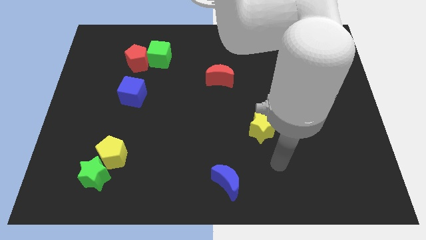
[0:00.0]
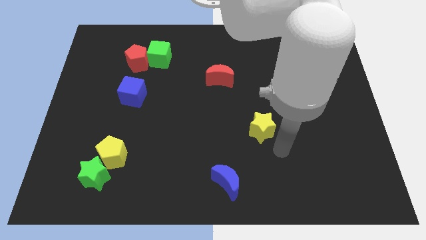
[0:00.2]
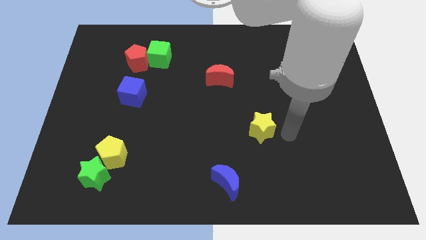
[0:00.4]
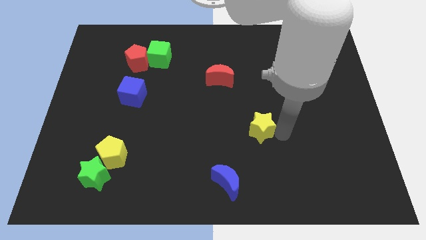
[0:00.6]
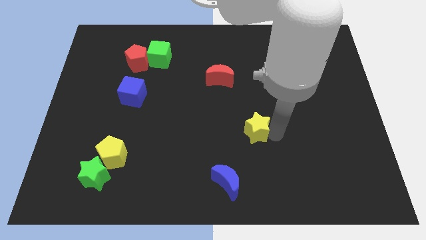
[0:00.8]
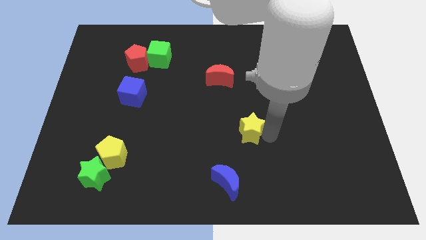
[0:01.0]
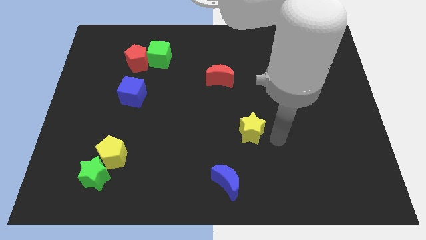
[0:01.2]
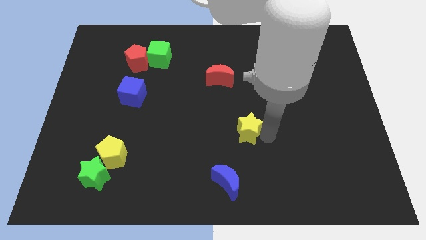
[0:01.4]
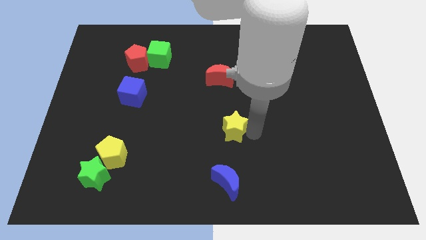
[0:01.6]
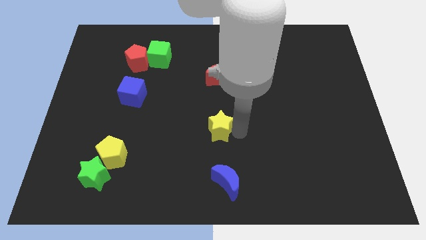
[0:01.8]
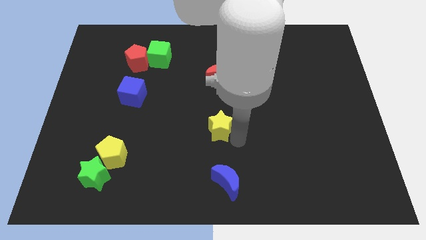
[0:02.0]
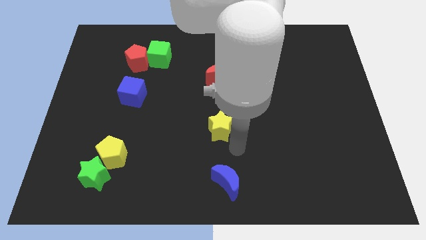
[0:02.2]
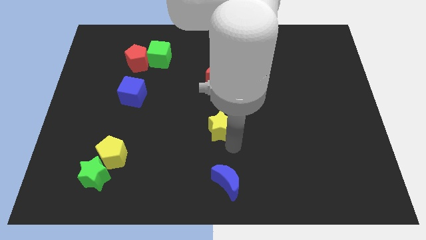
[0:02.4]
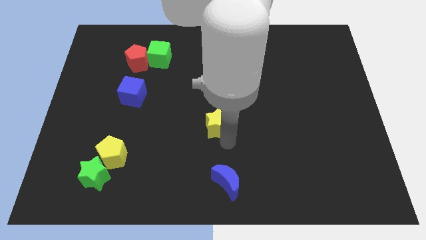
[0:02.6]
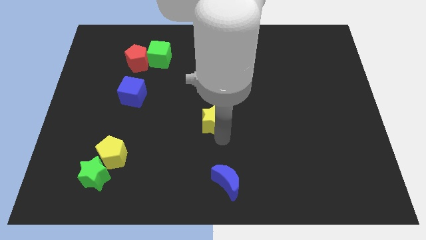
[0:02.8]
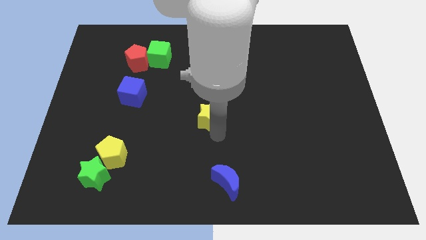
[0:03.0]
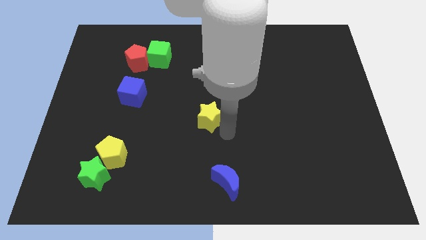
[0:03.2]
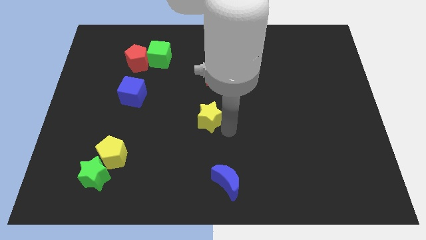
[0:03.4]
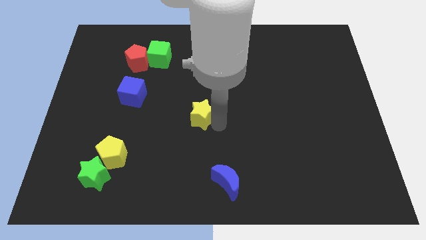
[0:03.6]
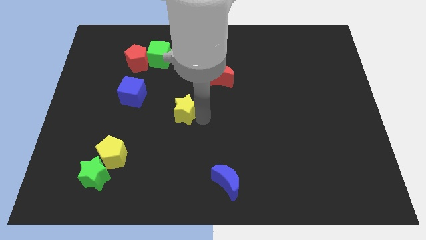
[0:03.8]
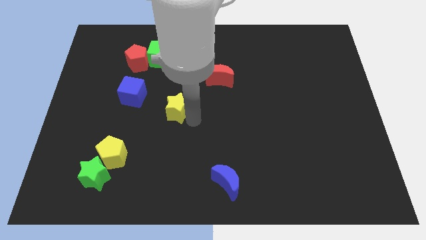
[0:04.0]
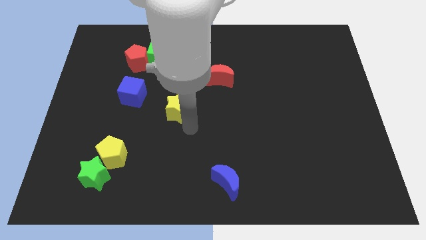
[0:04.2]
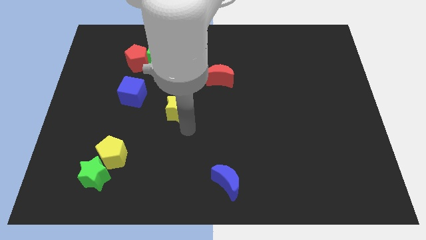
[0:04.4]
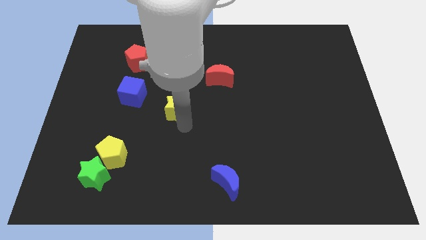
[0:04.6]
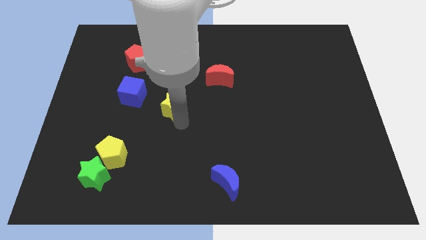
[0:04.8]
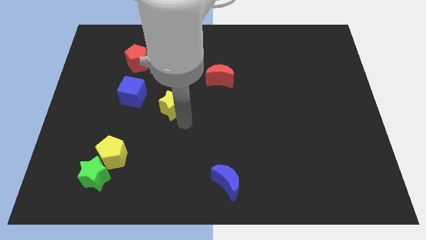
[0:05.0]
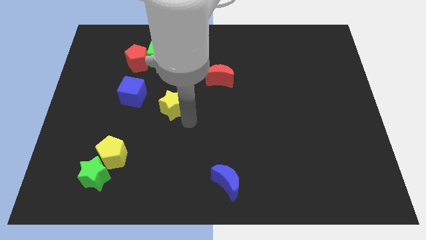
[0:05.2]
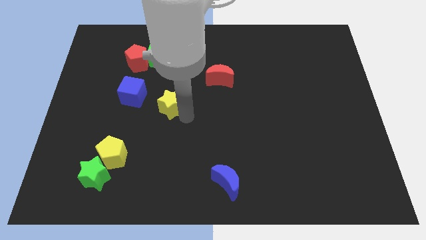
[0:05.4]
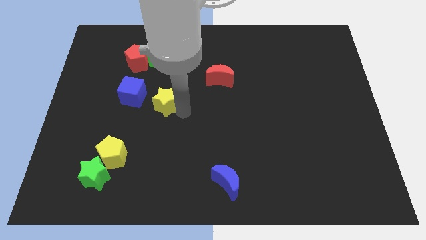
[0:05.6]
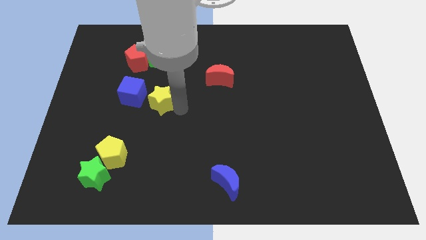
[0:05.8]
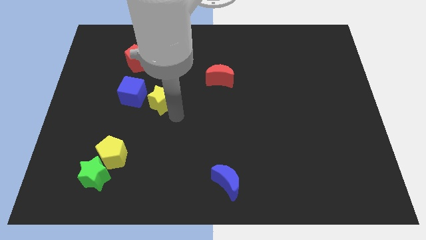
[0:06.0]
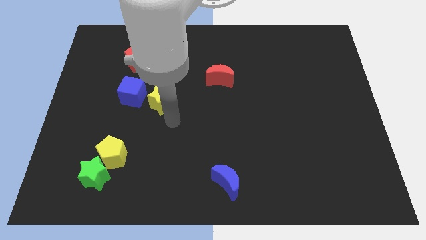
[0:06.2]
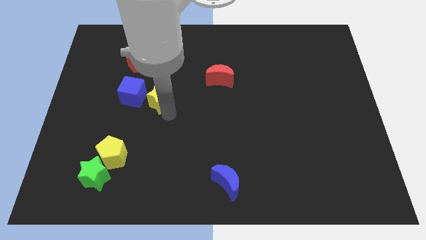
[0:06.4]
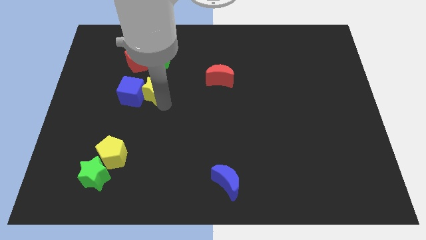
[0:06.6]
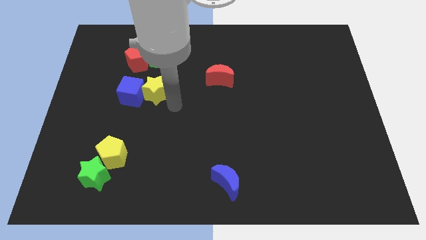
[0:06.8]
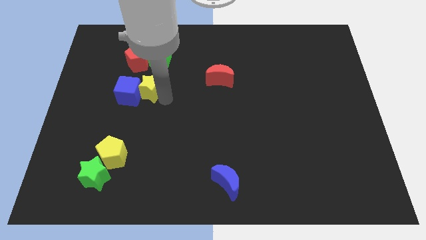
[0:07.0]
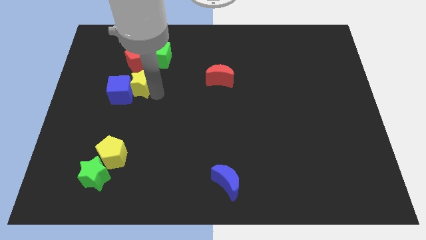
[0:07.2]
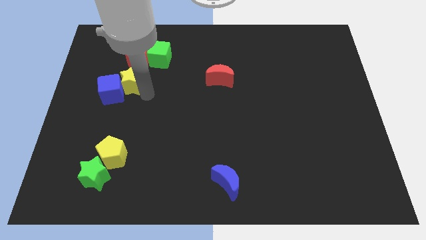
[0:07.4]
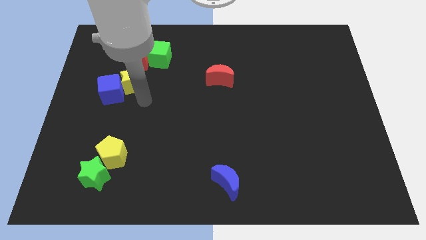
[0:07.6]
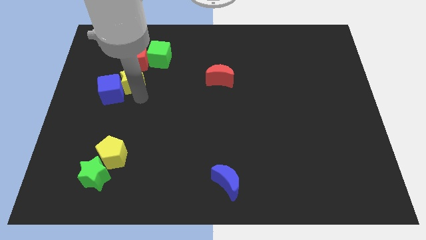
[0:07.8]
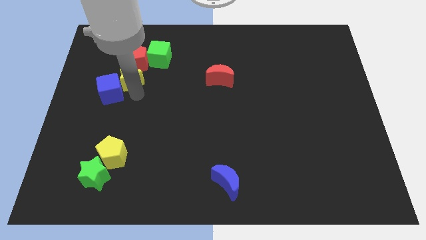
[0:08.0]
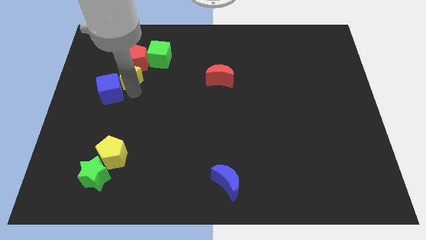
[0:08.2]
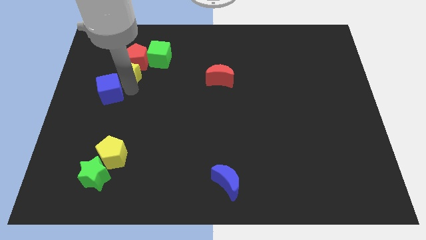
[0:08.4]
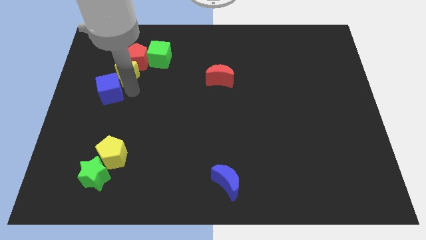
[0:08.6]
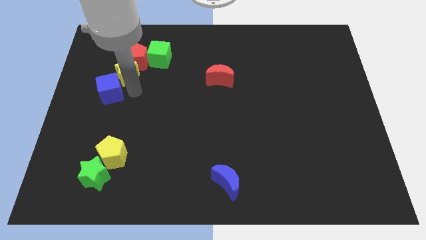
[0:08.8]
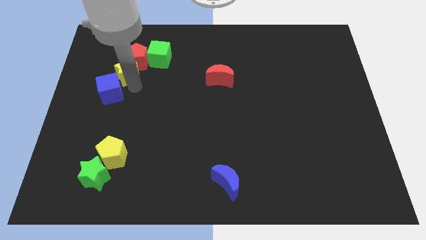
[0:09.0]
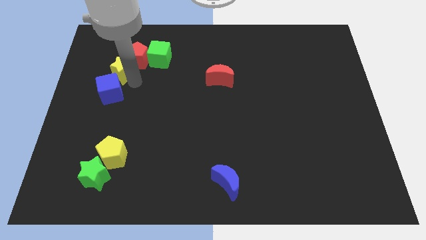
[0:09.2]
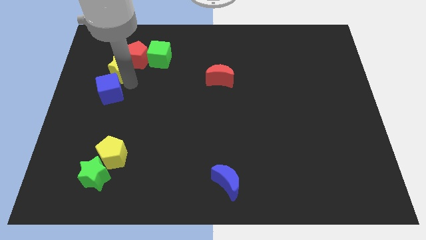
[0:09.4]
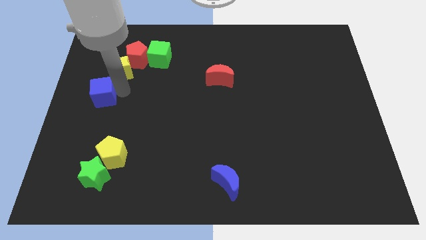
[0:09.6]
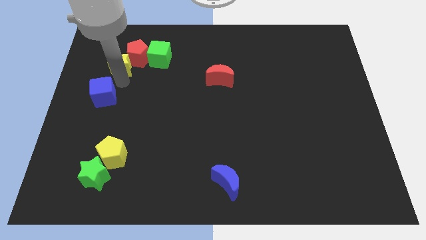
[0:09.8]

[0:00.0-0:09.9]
slide the yellow star left of the green cube

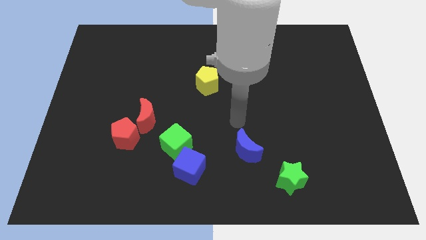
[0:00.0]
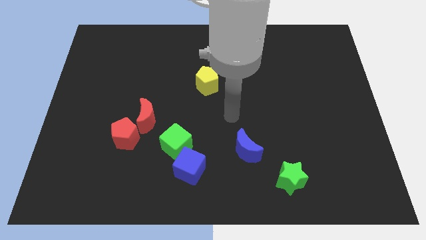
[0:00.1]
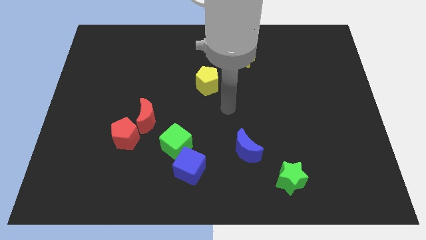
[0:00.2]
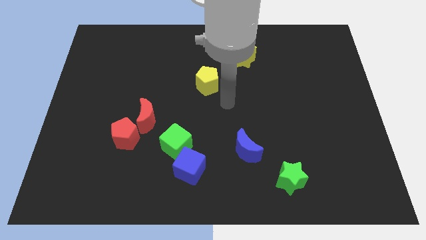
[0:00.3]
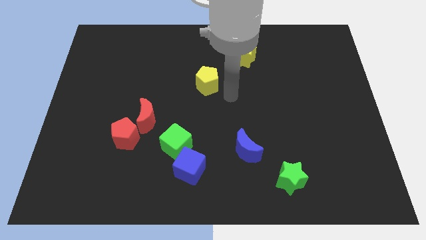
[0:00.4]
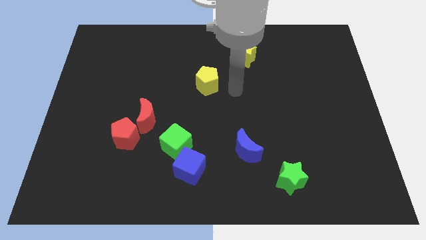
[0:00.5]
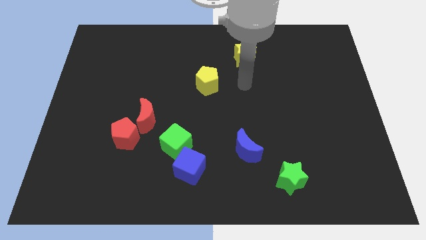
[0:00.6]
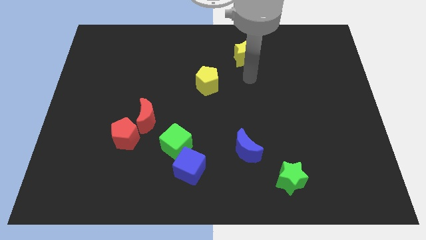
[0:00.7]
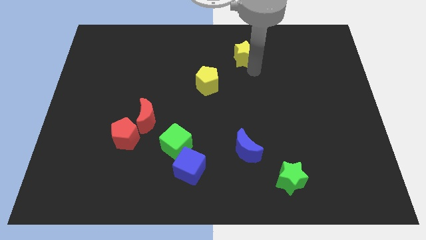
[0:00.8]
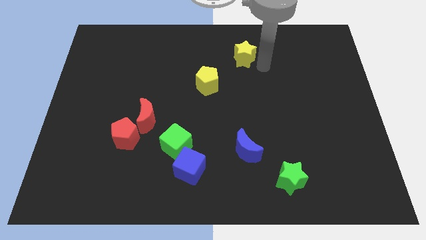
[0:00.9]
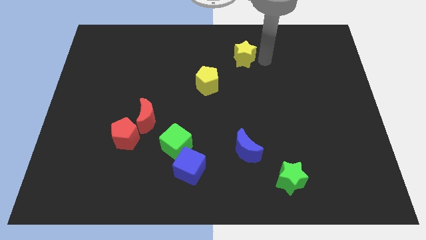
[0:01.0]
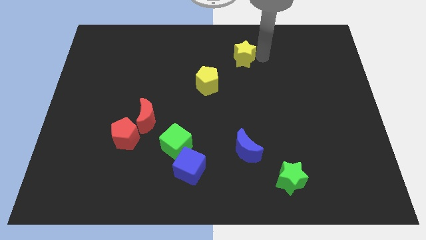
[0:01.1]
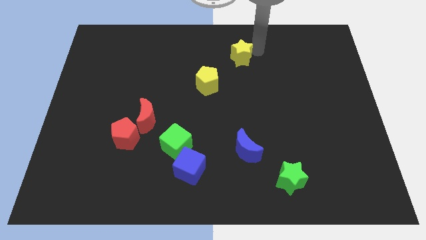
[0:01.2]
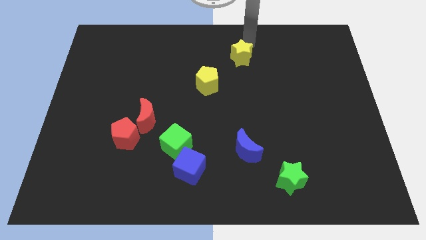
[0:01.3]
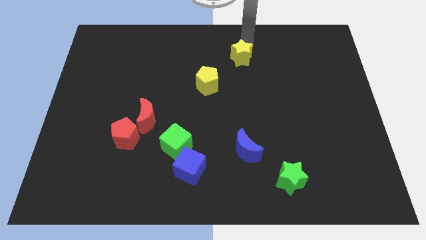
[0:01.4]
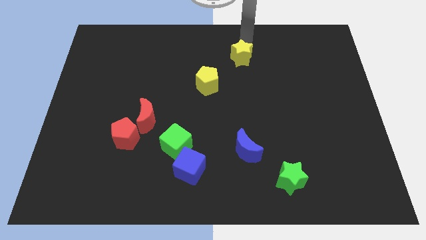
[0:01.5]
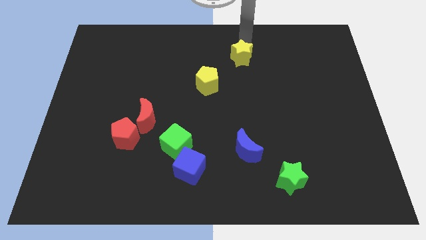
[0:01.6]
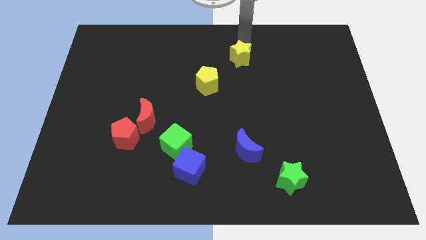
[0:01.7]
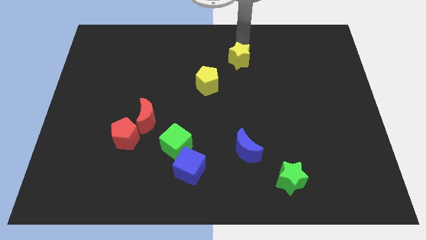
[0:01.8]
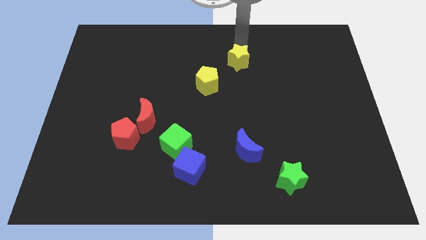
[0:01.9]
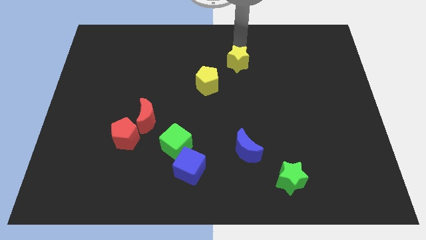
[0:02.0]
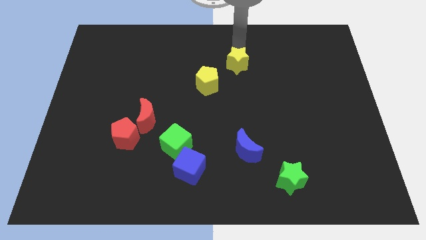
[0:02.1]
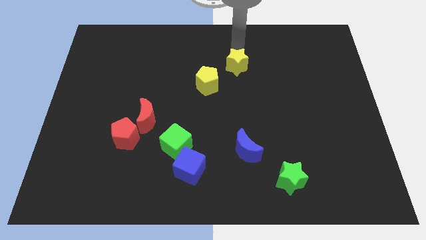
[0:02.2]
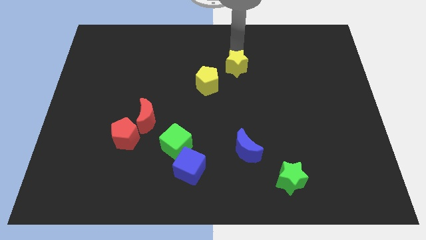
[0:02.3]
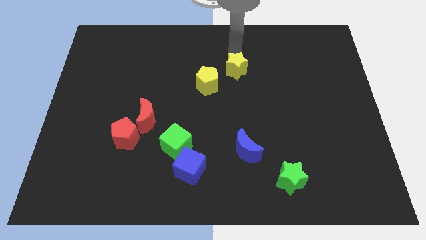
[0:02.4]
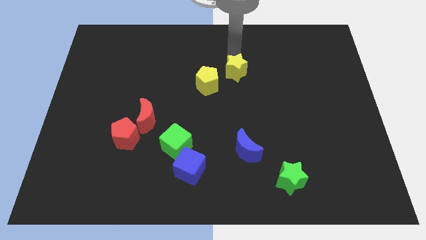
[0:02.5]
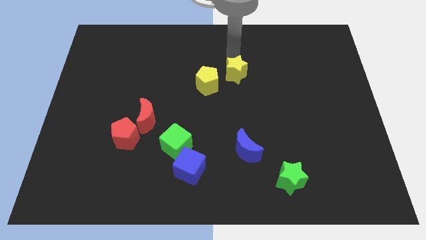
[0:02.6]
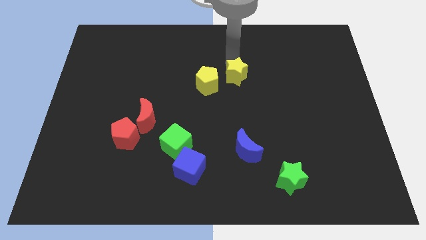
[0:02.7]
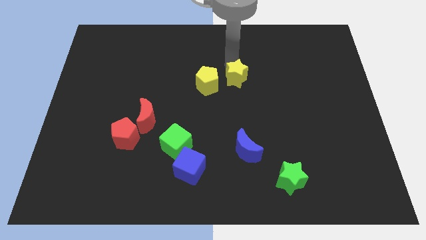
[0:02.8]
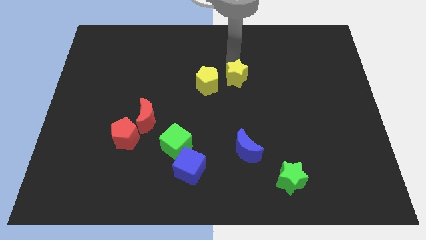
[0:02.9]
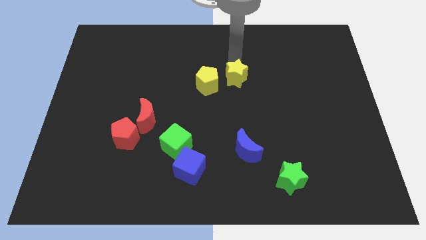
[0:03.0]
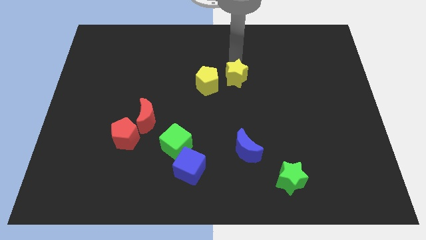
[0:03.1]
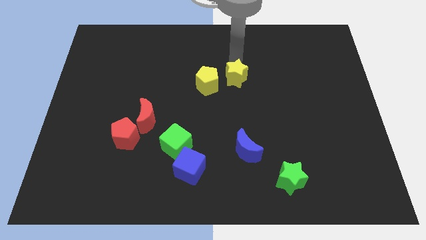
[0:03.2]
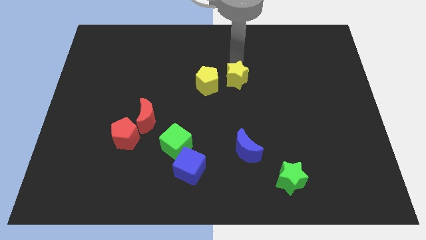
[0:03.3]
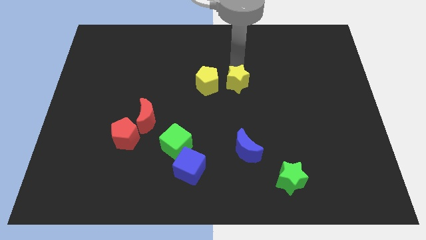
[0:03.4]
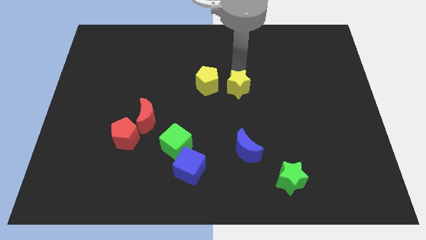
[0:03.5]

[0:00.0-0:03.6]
push the yellow star to the bottom right side of the yellow pentagon
